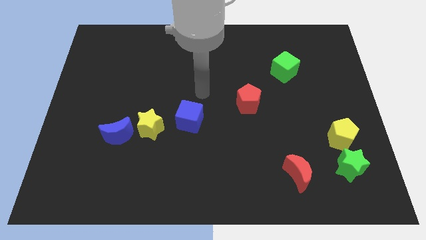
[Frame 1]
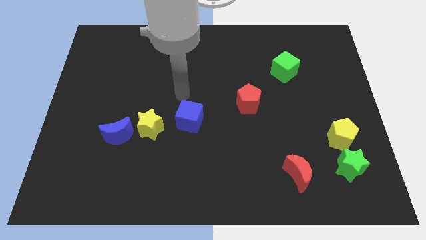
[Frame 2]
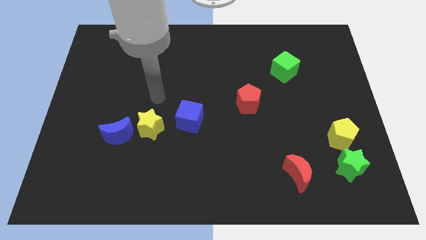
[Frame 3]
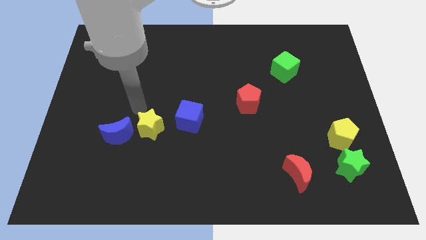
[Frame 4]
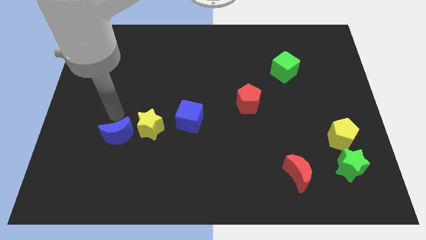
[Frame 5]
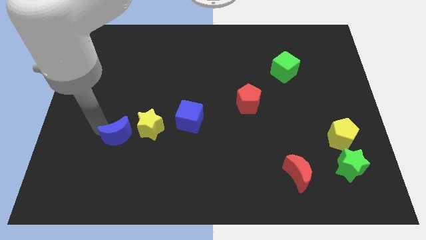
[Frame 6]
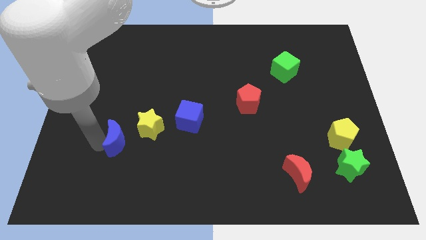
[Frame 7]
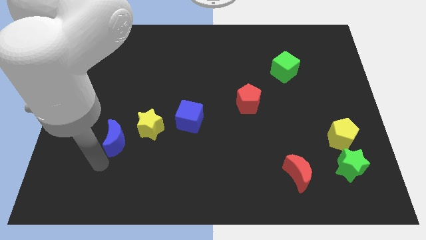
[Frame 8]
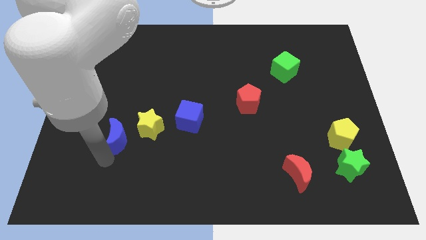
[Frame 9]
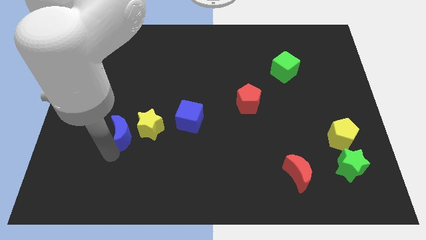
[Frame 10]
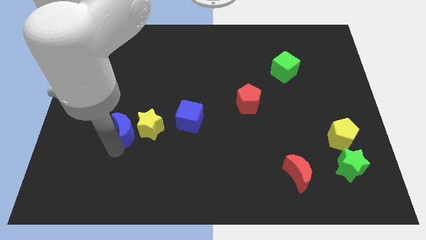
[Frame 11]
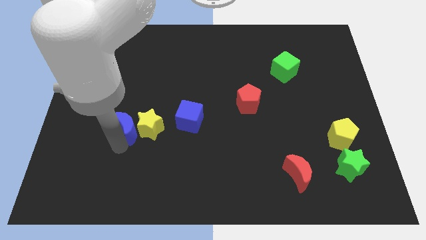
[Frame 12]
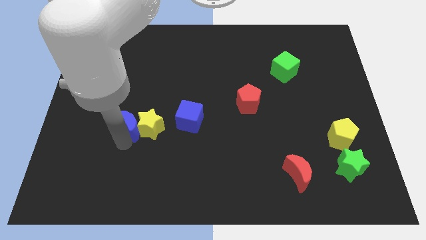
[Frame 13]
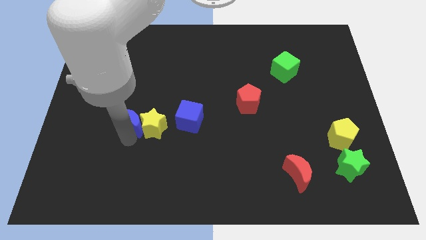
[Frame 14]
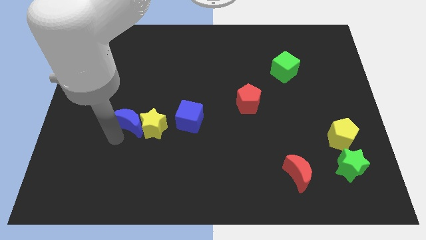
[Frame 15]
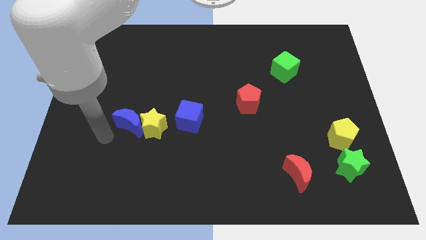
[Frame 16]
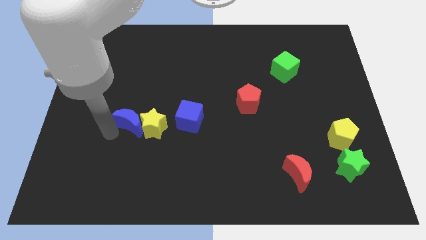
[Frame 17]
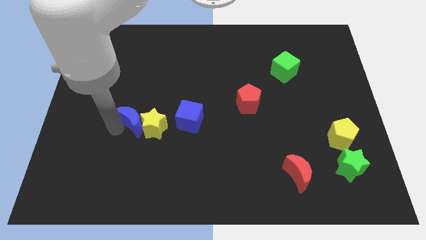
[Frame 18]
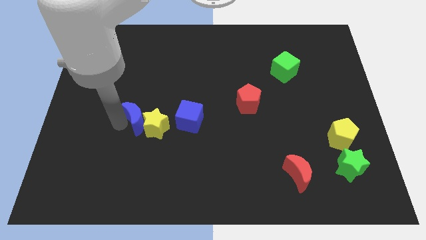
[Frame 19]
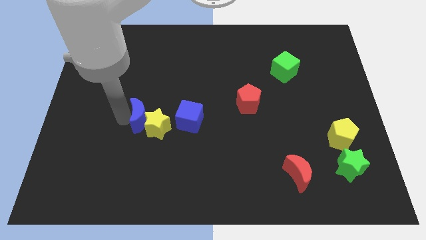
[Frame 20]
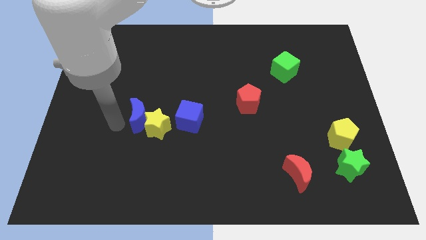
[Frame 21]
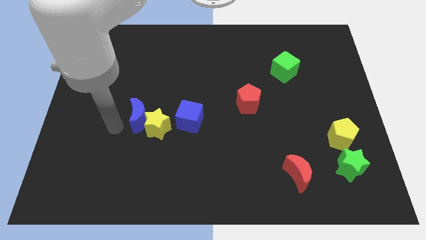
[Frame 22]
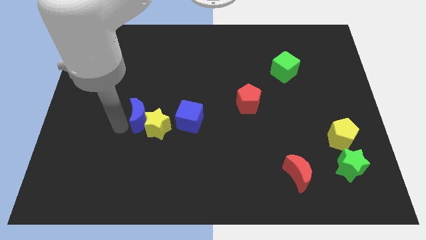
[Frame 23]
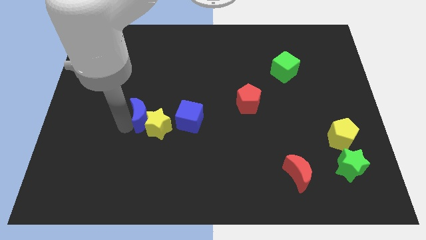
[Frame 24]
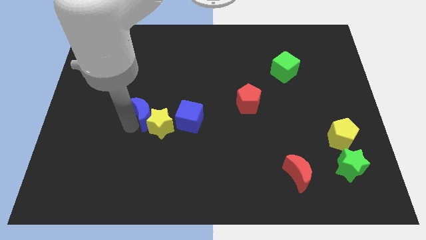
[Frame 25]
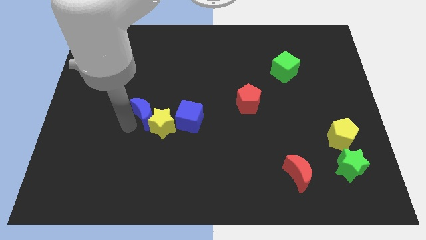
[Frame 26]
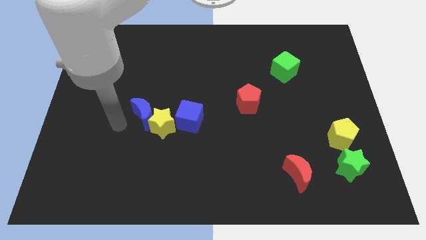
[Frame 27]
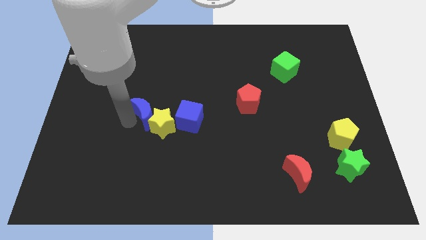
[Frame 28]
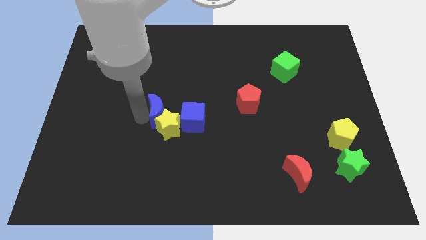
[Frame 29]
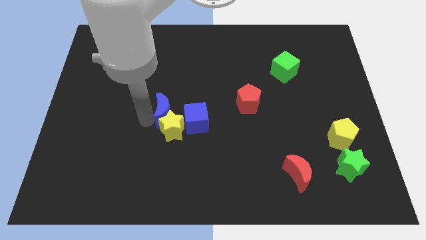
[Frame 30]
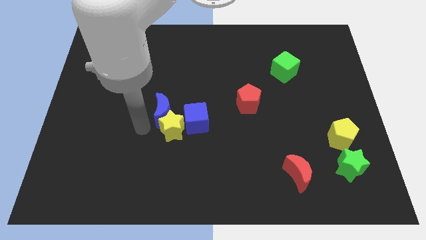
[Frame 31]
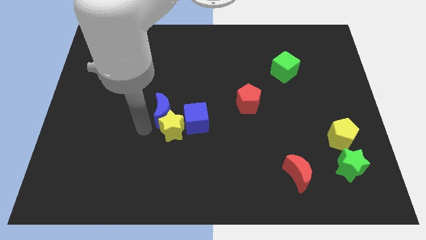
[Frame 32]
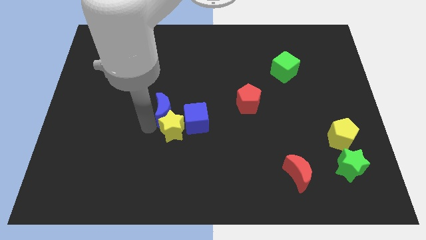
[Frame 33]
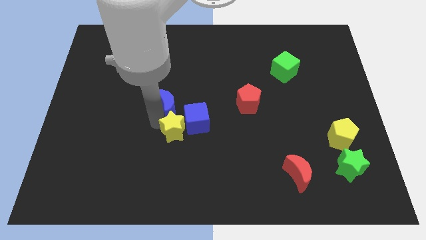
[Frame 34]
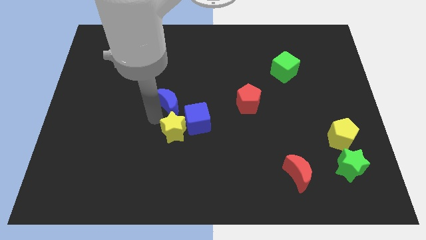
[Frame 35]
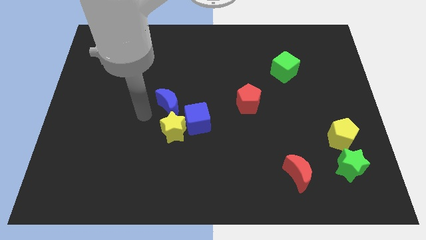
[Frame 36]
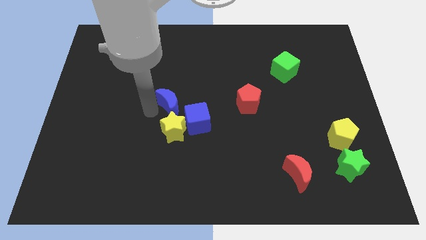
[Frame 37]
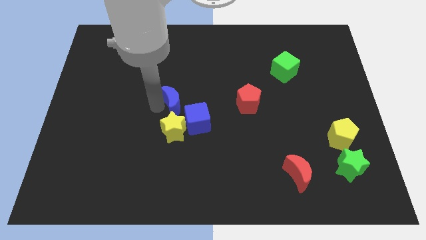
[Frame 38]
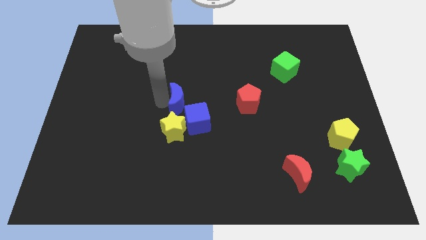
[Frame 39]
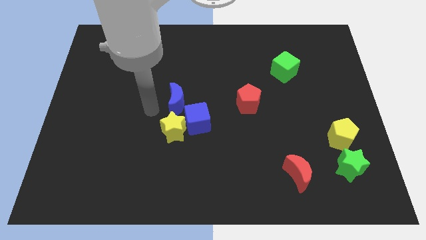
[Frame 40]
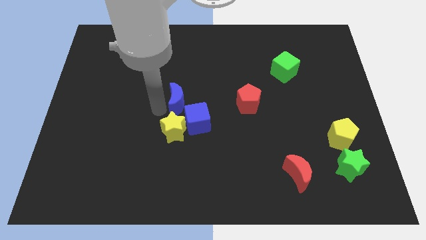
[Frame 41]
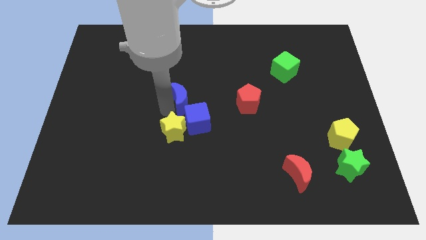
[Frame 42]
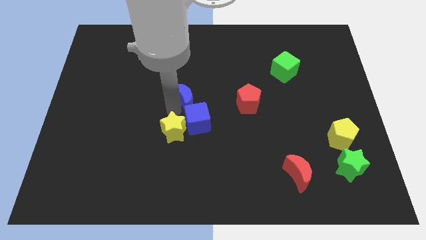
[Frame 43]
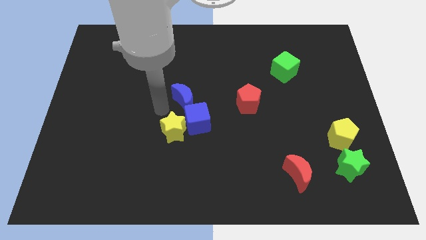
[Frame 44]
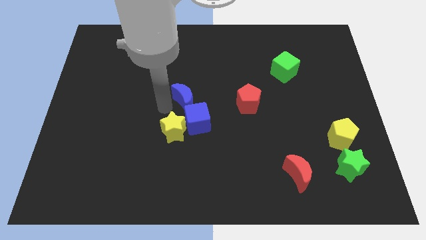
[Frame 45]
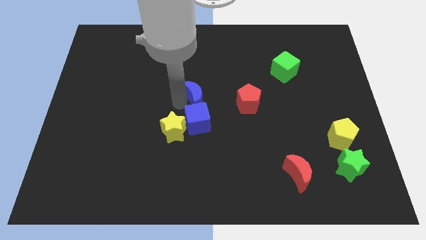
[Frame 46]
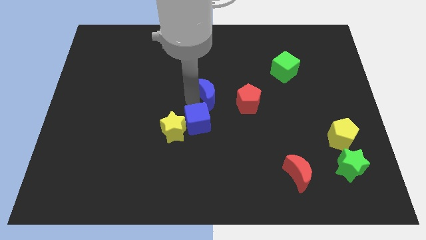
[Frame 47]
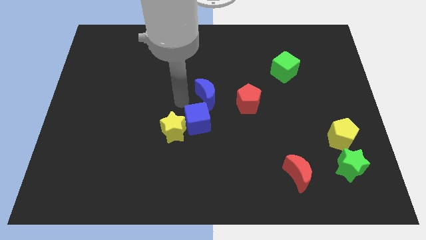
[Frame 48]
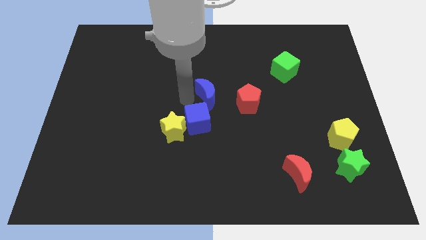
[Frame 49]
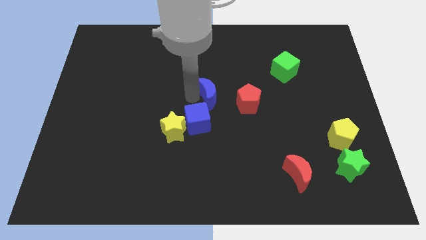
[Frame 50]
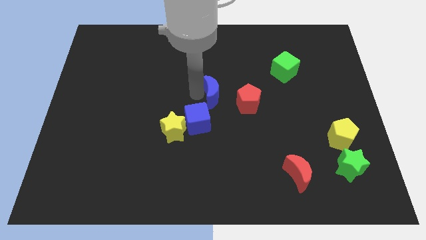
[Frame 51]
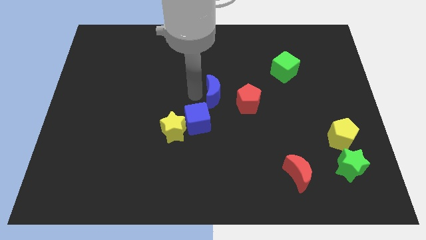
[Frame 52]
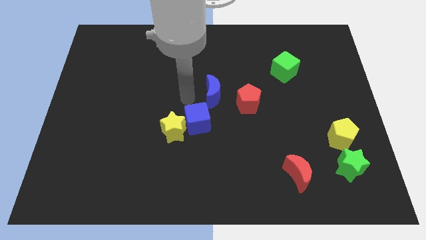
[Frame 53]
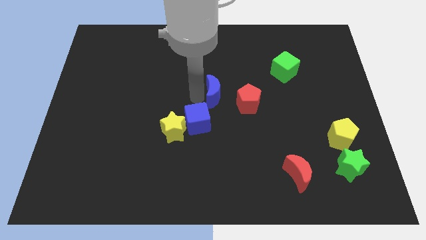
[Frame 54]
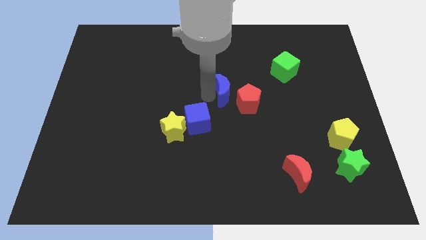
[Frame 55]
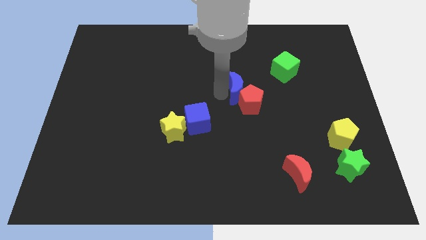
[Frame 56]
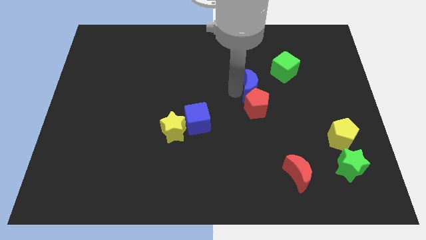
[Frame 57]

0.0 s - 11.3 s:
push the blue moon to the top right side of the red pentagon

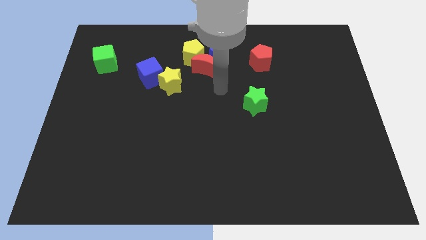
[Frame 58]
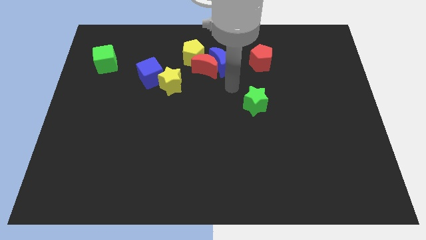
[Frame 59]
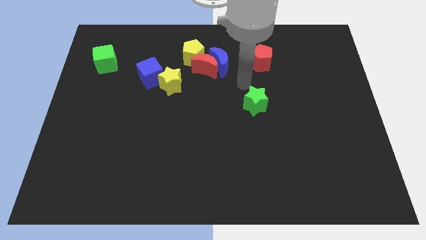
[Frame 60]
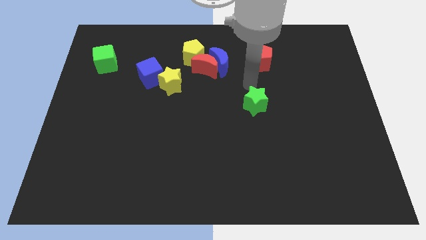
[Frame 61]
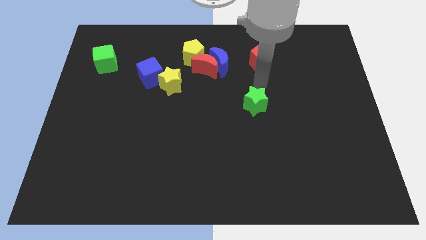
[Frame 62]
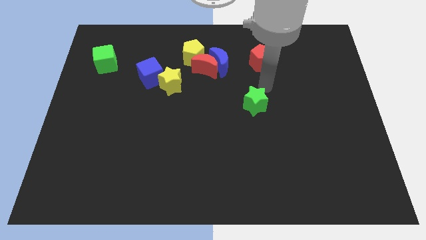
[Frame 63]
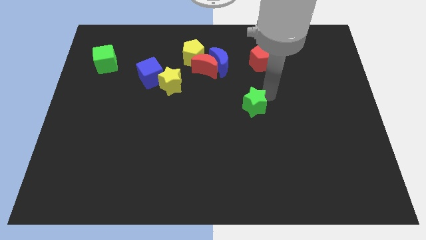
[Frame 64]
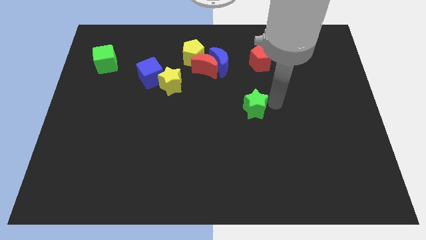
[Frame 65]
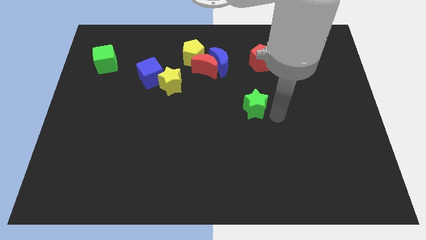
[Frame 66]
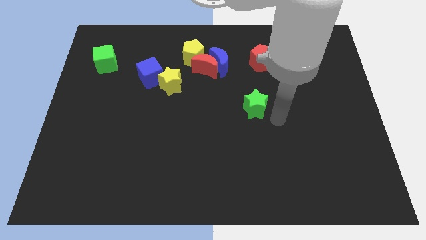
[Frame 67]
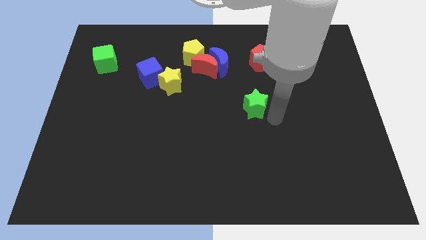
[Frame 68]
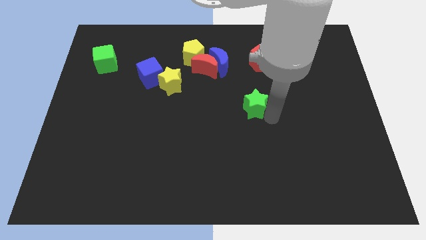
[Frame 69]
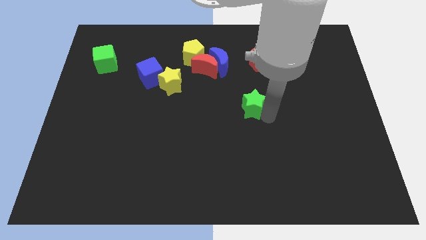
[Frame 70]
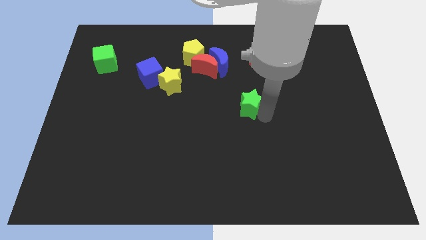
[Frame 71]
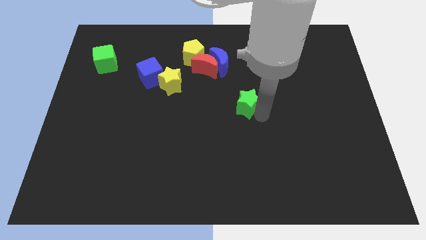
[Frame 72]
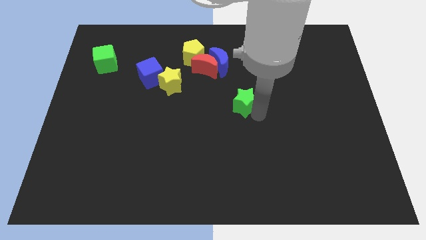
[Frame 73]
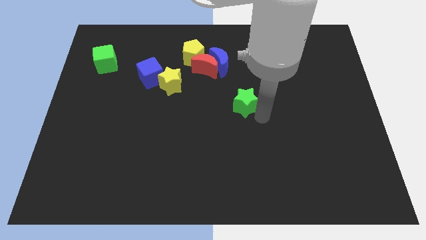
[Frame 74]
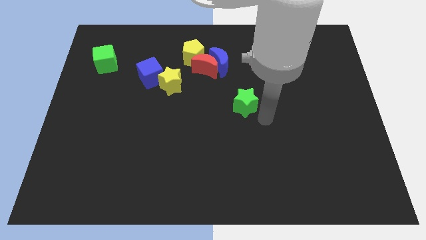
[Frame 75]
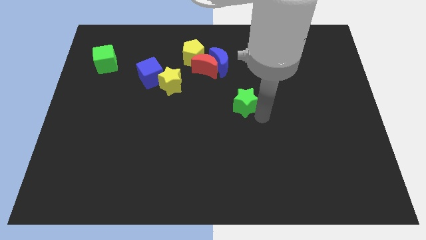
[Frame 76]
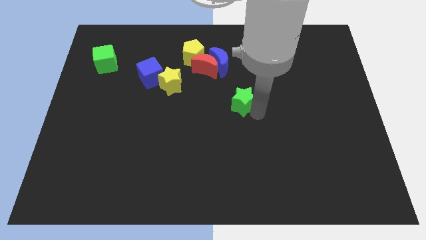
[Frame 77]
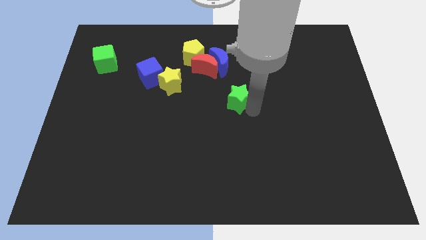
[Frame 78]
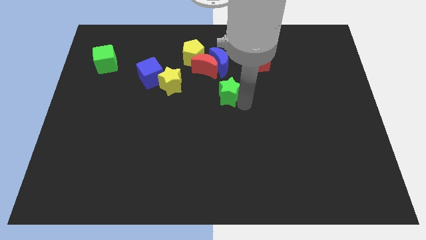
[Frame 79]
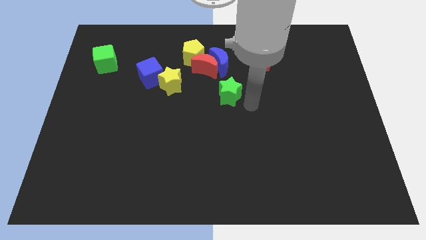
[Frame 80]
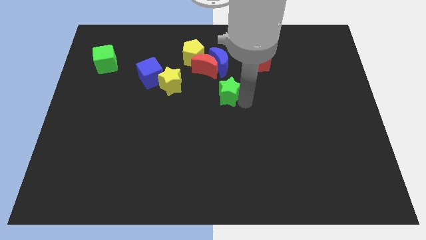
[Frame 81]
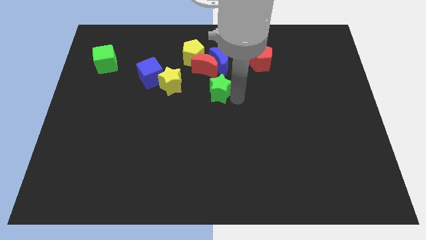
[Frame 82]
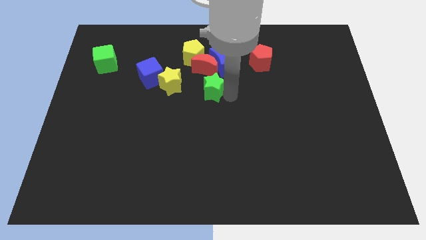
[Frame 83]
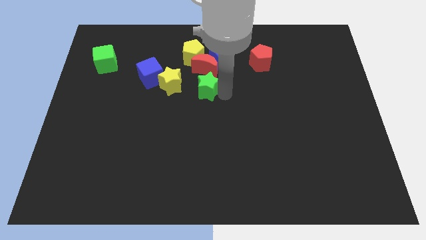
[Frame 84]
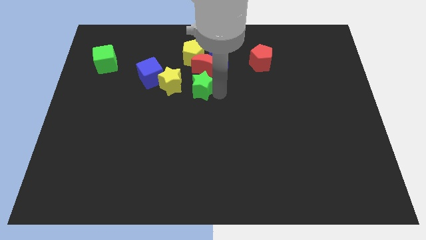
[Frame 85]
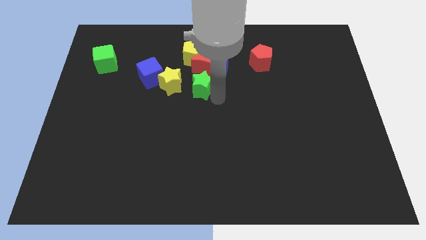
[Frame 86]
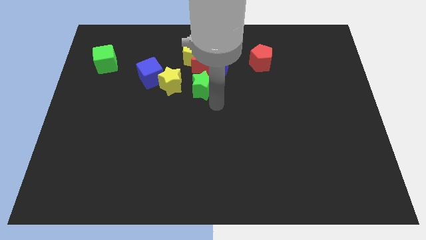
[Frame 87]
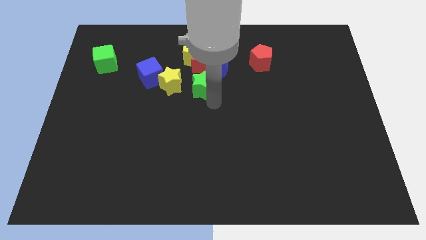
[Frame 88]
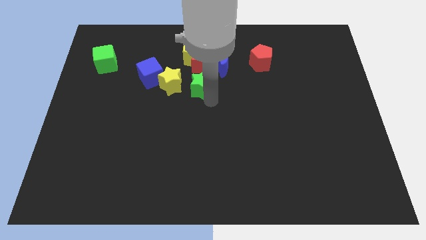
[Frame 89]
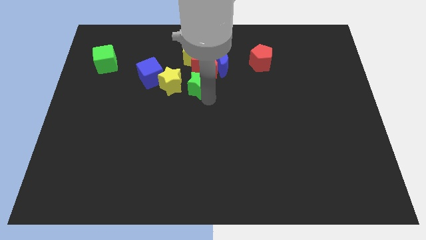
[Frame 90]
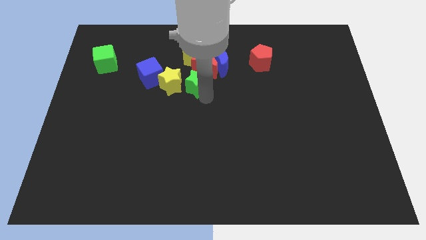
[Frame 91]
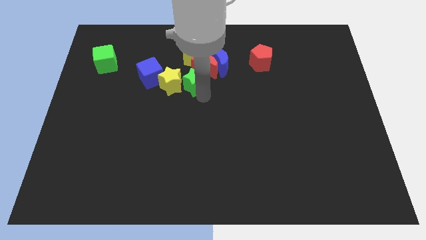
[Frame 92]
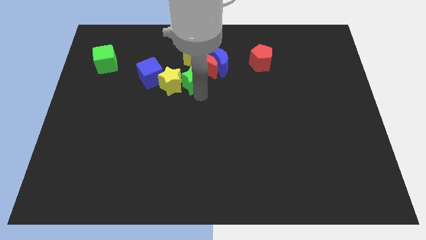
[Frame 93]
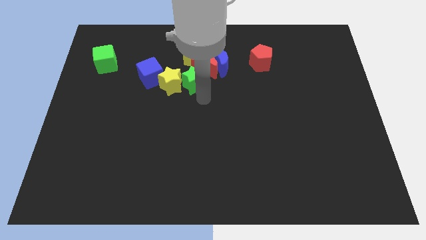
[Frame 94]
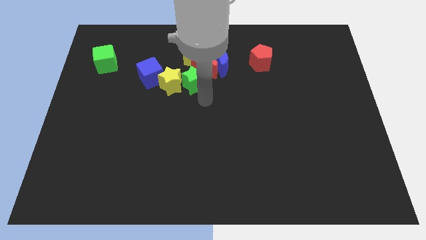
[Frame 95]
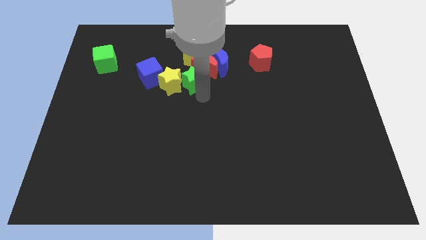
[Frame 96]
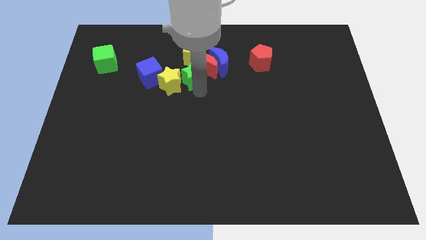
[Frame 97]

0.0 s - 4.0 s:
move the green star left of the red moon
